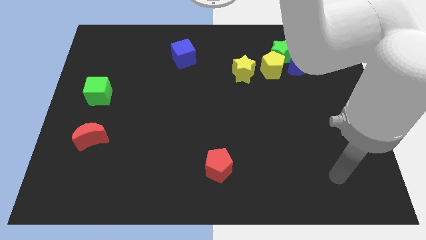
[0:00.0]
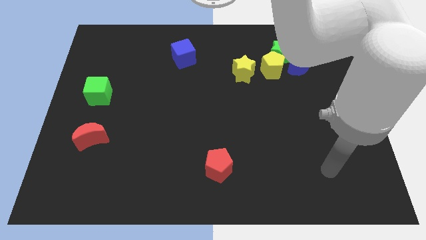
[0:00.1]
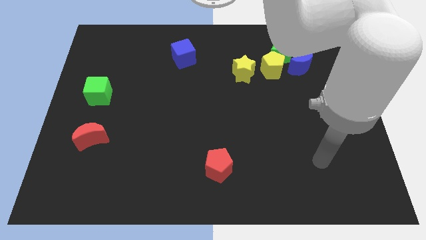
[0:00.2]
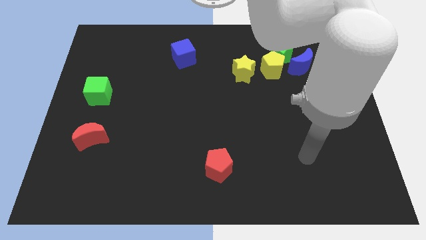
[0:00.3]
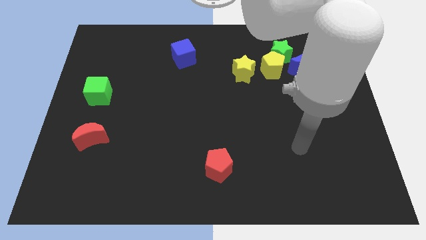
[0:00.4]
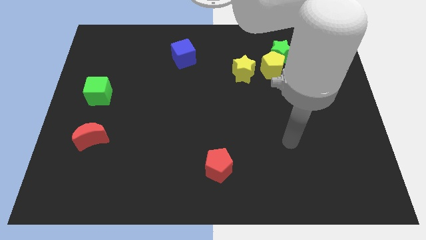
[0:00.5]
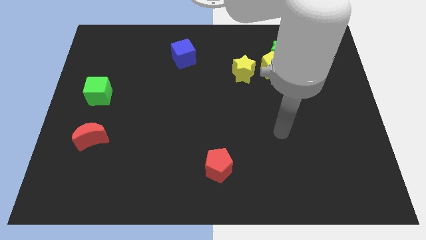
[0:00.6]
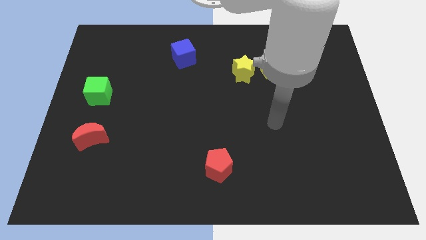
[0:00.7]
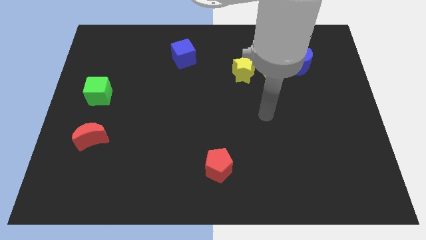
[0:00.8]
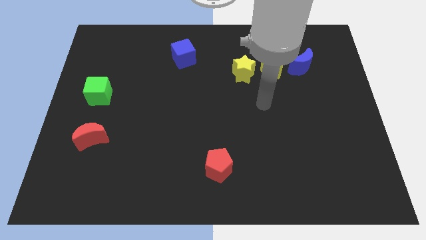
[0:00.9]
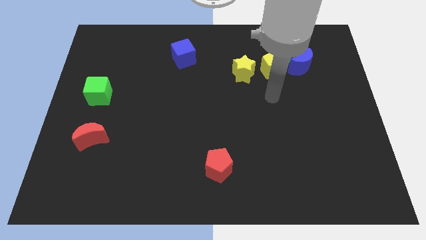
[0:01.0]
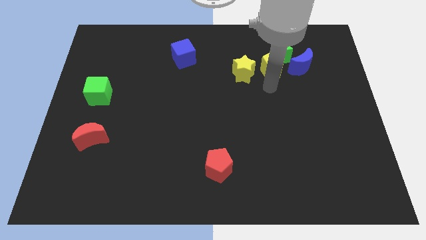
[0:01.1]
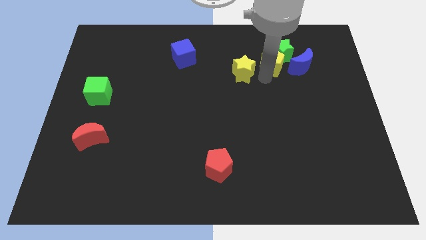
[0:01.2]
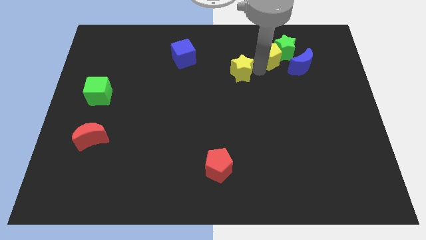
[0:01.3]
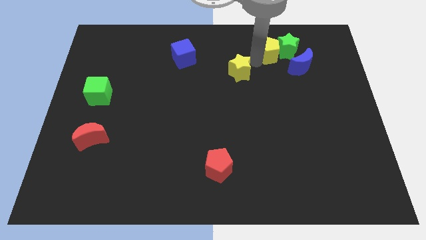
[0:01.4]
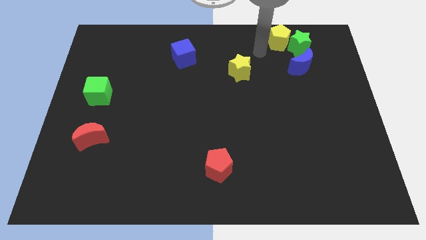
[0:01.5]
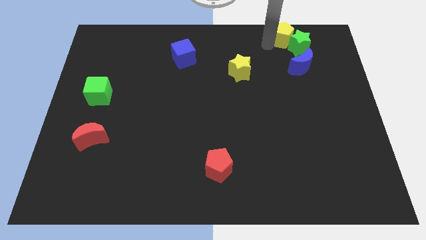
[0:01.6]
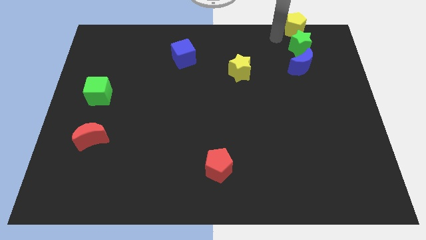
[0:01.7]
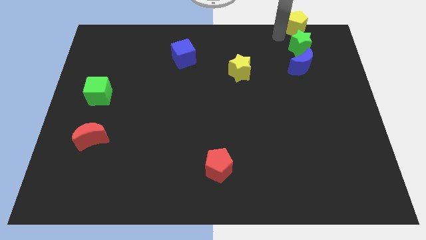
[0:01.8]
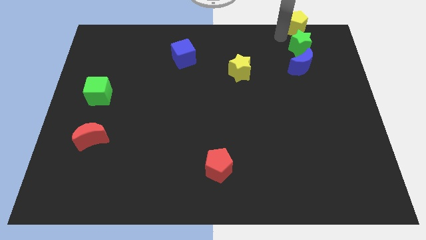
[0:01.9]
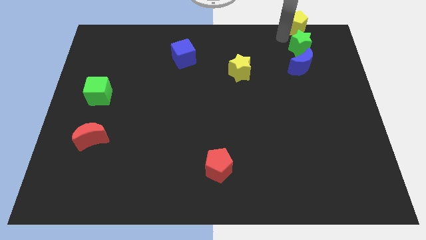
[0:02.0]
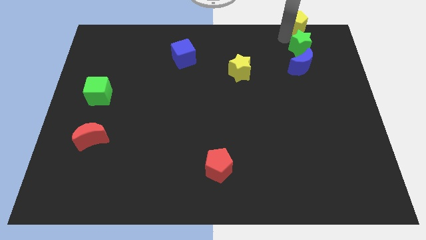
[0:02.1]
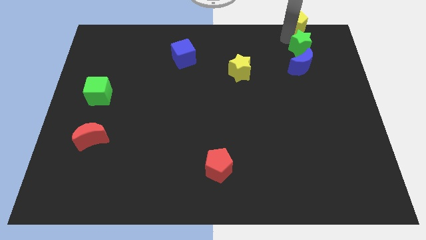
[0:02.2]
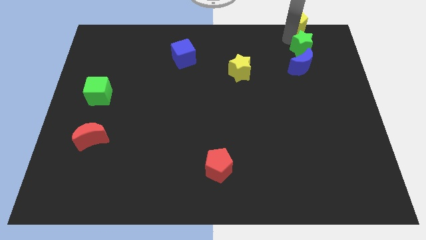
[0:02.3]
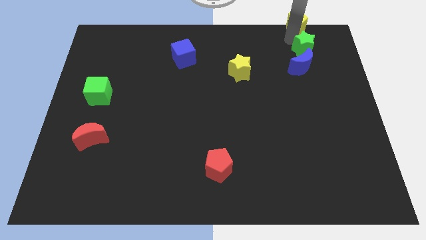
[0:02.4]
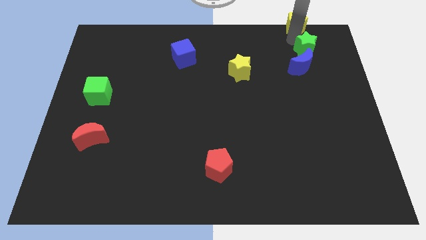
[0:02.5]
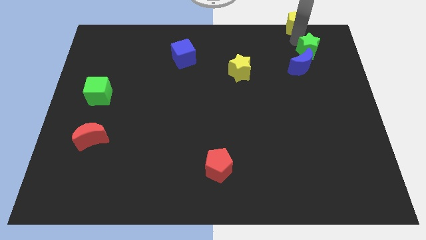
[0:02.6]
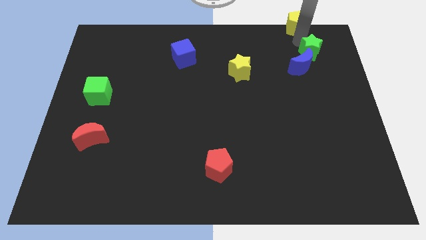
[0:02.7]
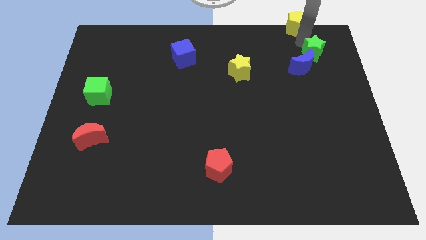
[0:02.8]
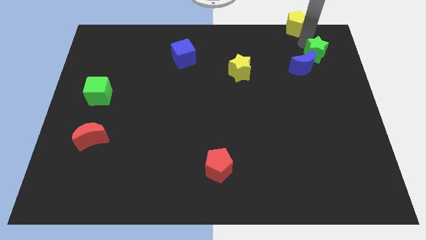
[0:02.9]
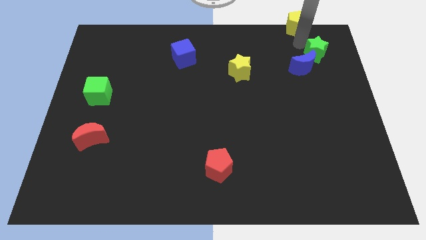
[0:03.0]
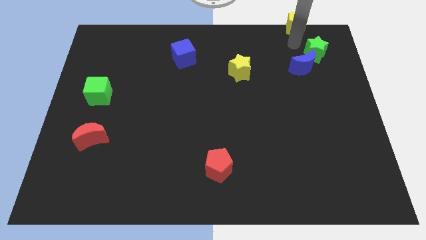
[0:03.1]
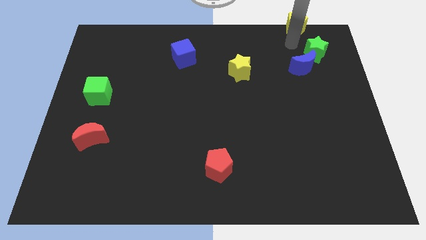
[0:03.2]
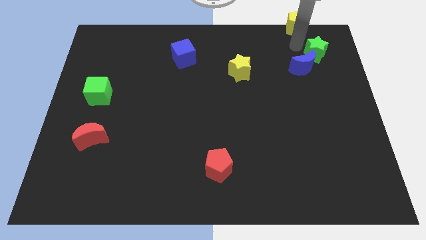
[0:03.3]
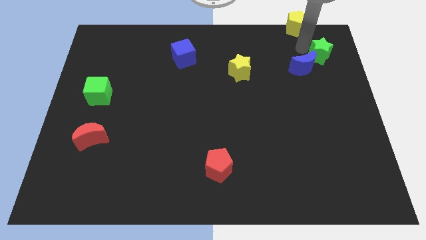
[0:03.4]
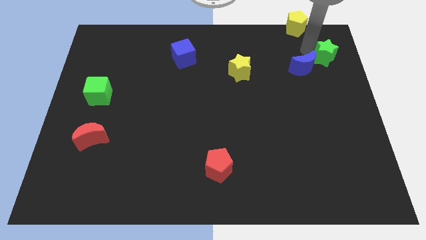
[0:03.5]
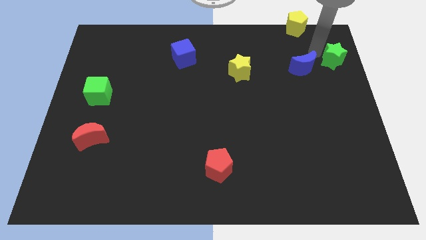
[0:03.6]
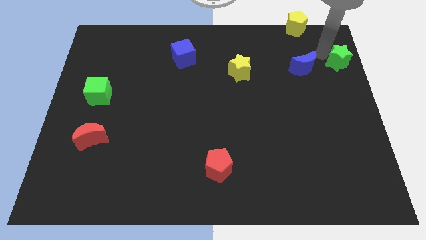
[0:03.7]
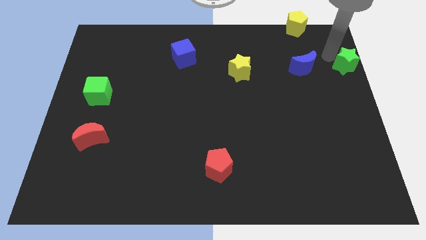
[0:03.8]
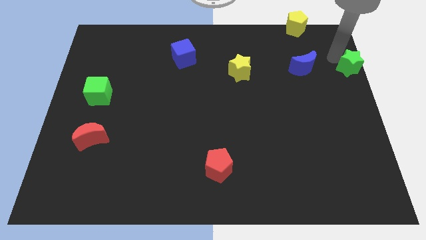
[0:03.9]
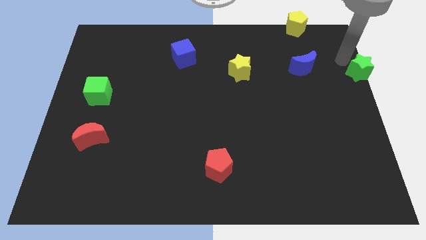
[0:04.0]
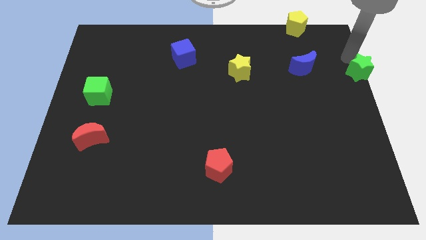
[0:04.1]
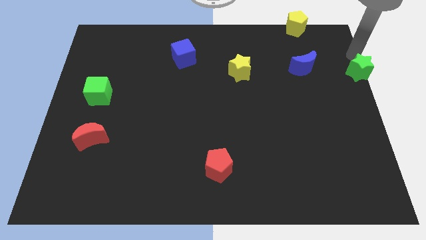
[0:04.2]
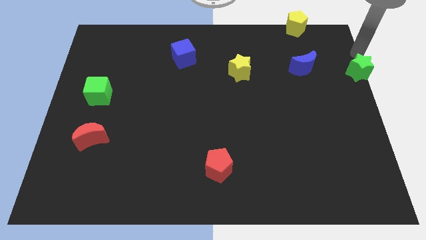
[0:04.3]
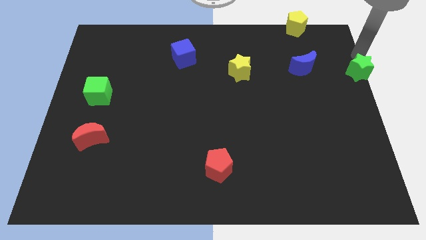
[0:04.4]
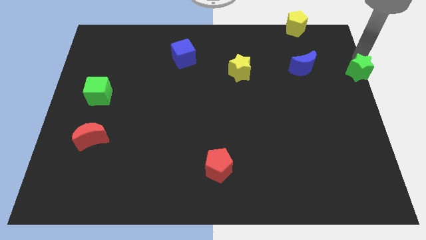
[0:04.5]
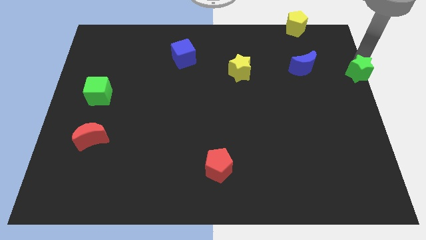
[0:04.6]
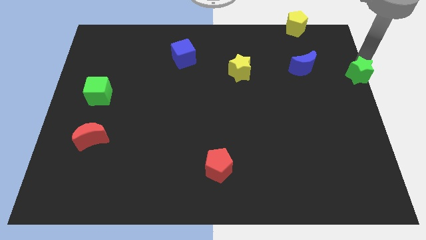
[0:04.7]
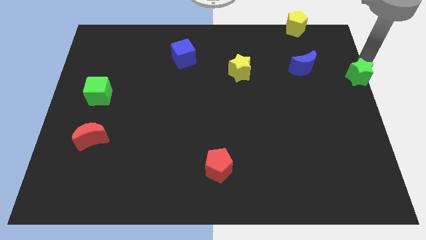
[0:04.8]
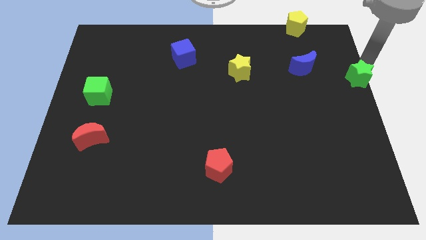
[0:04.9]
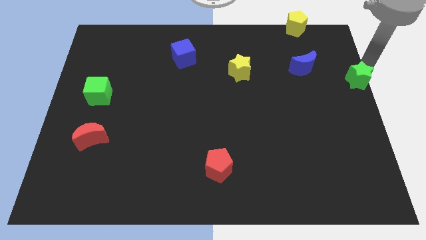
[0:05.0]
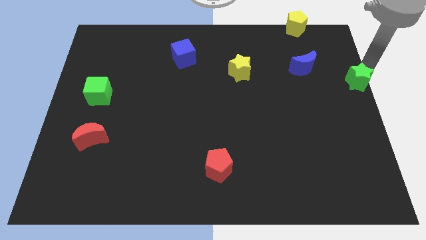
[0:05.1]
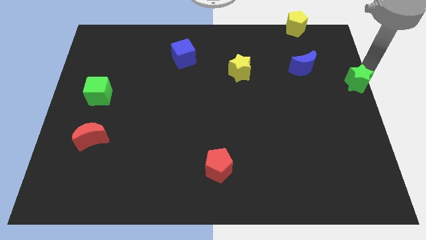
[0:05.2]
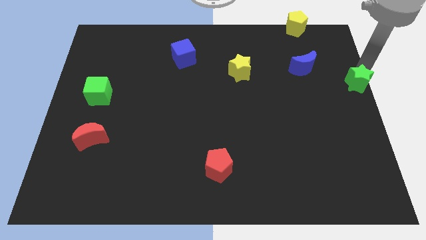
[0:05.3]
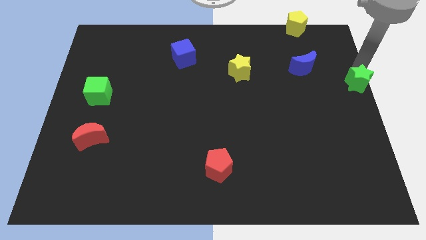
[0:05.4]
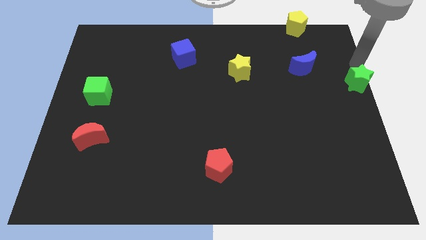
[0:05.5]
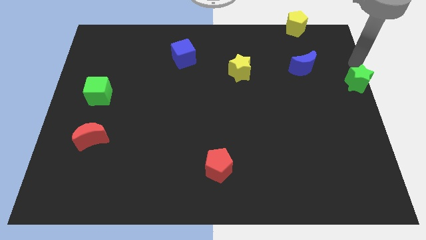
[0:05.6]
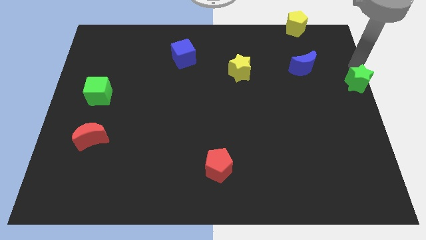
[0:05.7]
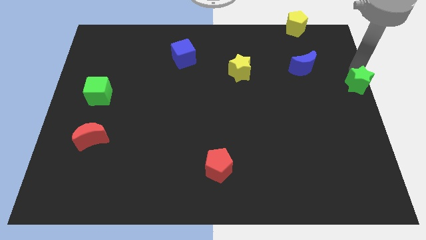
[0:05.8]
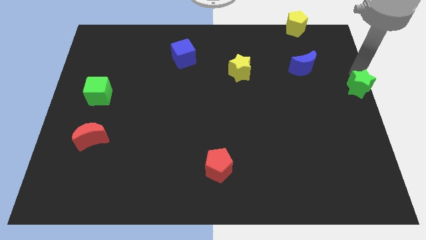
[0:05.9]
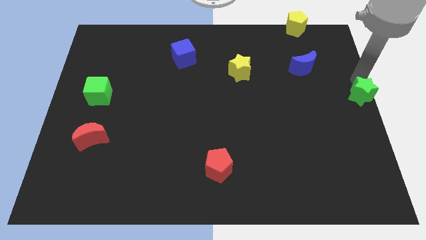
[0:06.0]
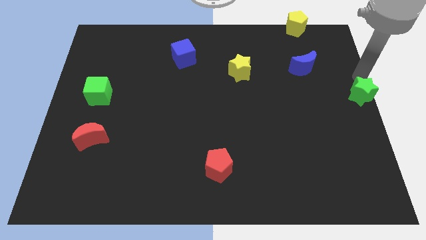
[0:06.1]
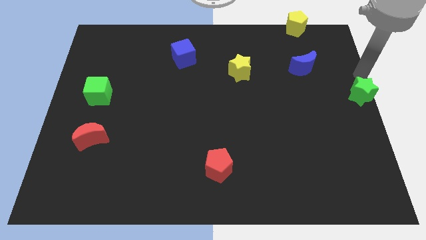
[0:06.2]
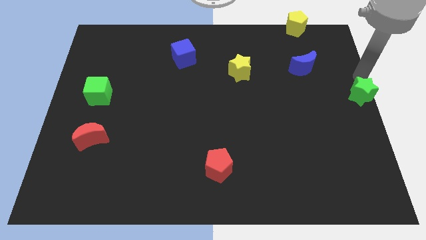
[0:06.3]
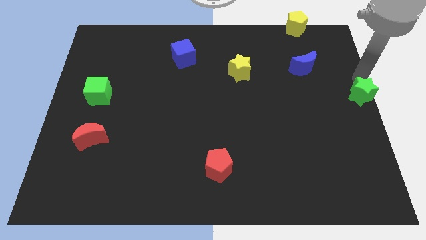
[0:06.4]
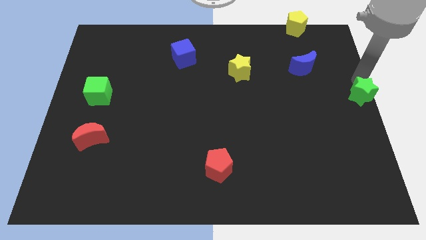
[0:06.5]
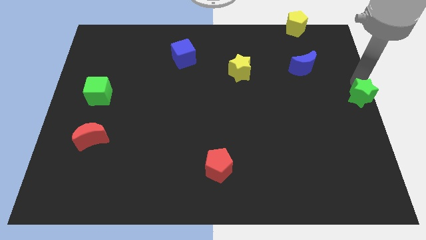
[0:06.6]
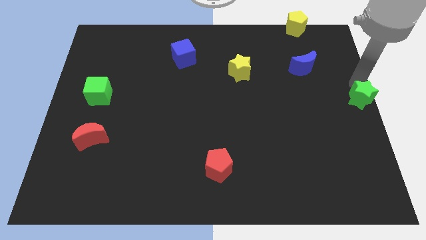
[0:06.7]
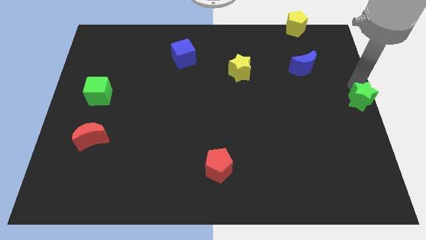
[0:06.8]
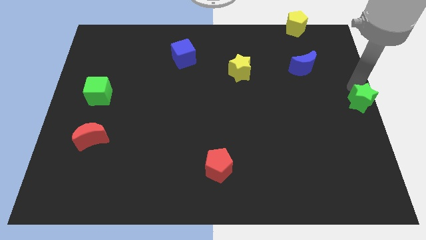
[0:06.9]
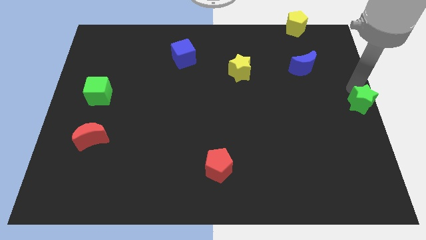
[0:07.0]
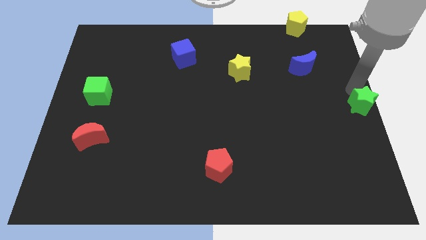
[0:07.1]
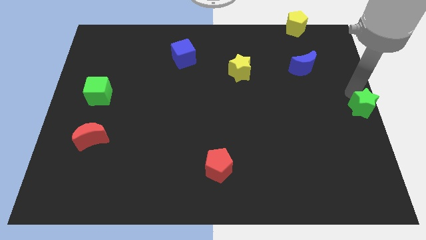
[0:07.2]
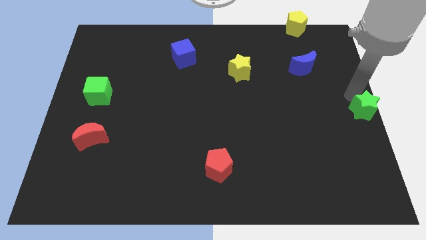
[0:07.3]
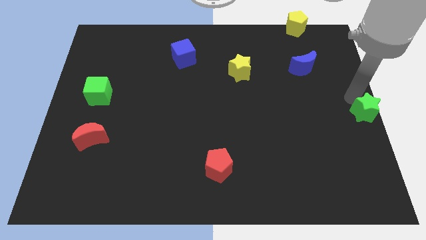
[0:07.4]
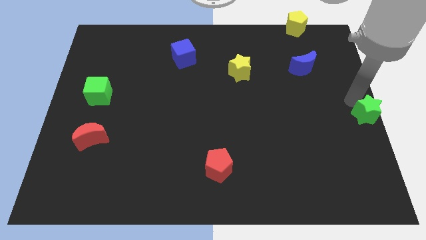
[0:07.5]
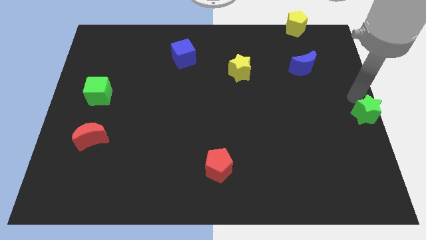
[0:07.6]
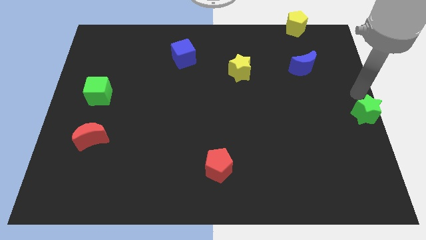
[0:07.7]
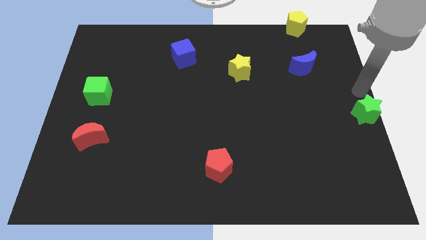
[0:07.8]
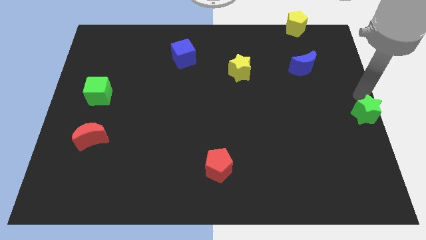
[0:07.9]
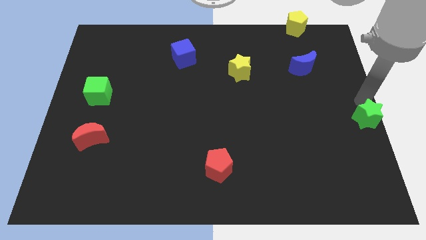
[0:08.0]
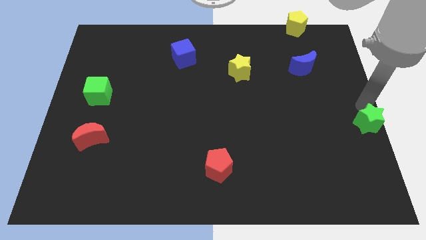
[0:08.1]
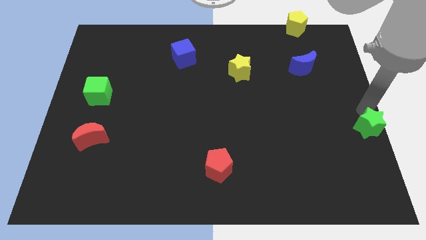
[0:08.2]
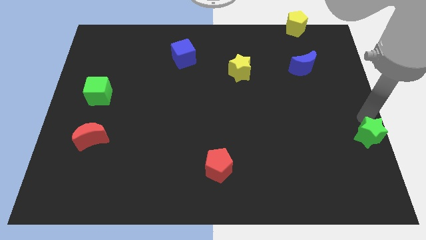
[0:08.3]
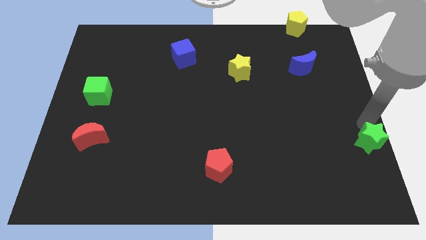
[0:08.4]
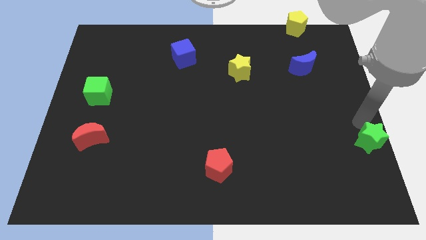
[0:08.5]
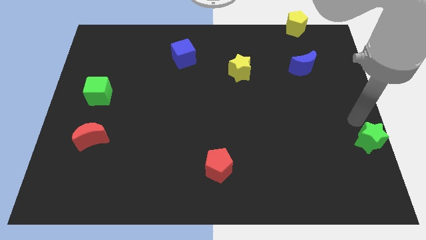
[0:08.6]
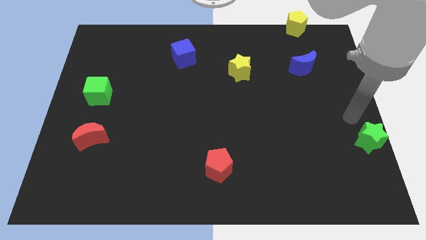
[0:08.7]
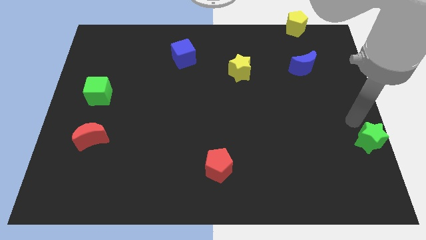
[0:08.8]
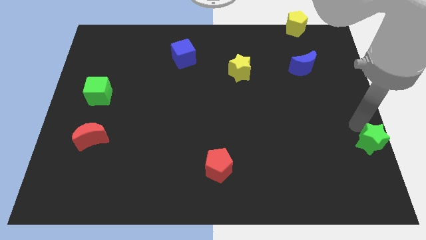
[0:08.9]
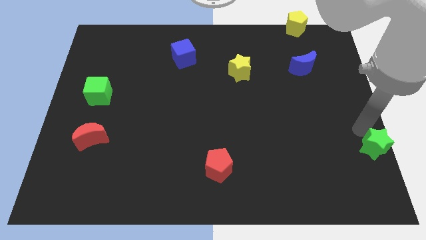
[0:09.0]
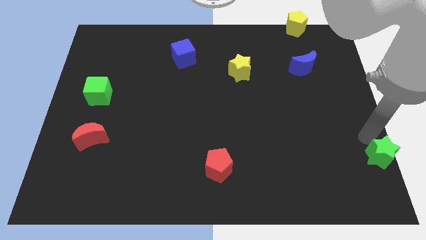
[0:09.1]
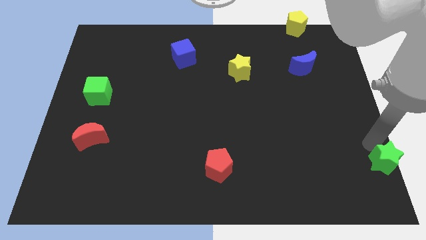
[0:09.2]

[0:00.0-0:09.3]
put the green star to the bottom right of the board
